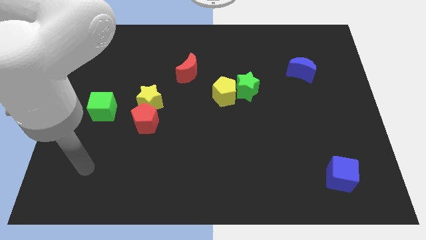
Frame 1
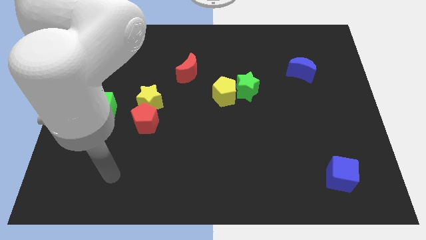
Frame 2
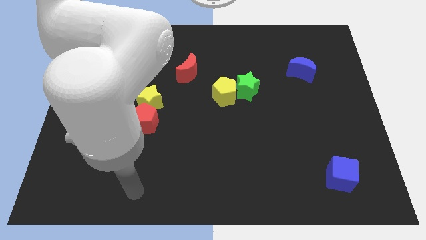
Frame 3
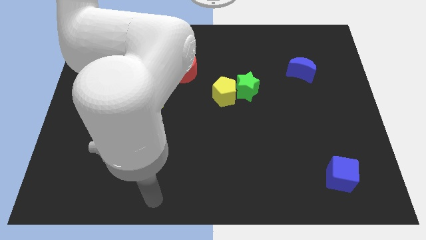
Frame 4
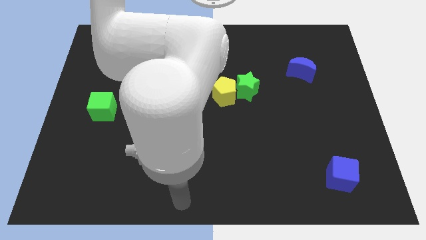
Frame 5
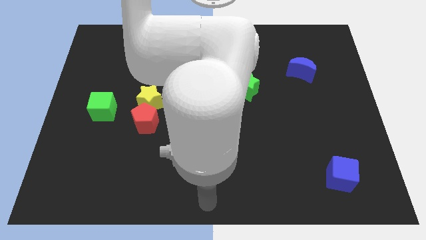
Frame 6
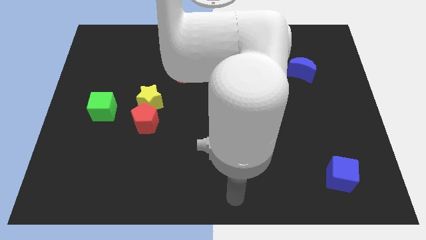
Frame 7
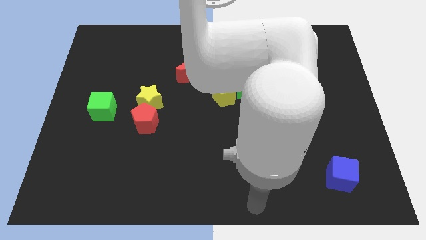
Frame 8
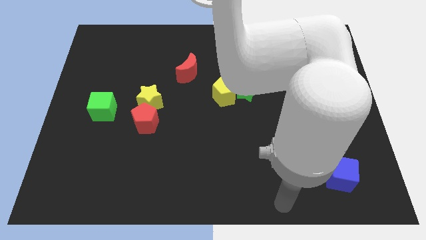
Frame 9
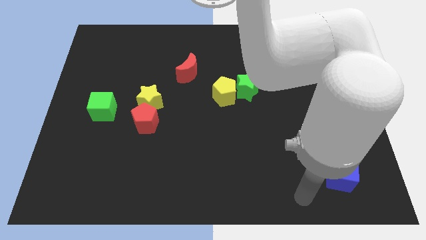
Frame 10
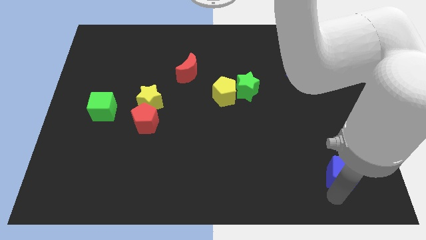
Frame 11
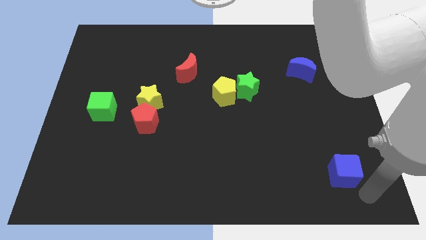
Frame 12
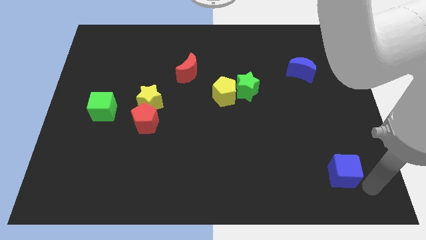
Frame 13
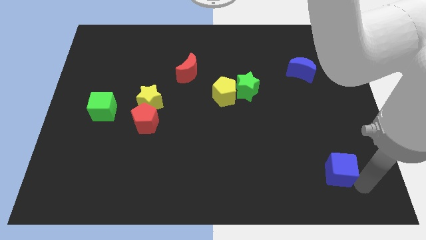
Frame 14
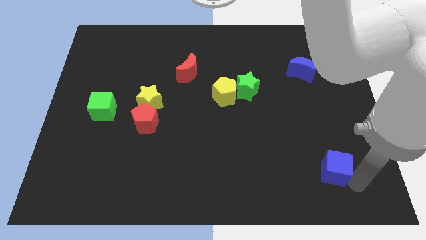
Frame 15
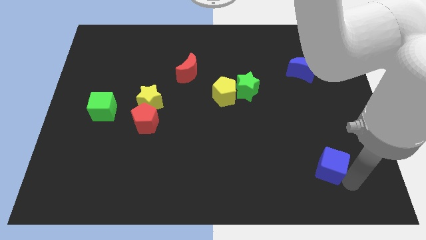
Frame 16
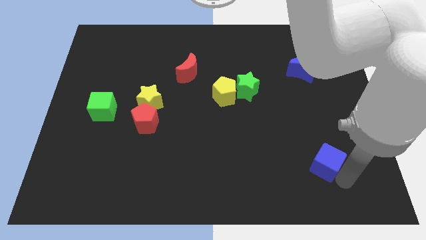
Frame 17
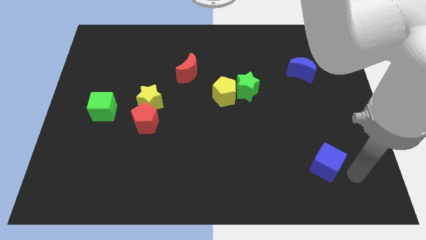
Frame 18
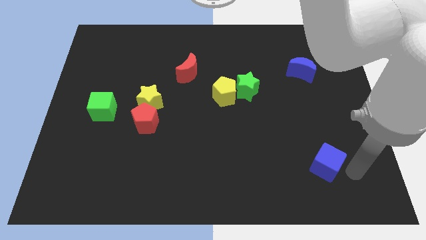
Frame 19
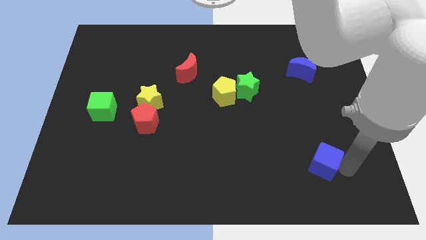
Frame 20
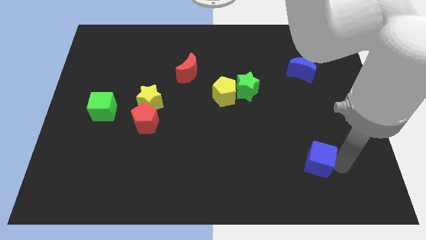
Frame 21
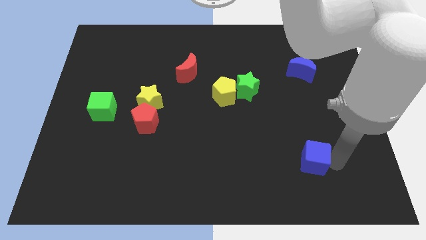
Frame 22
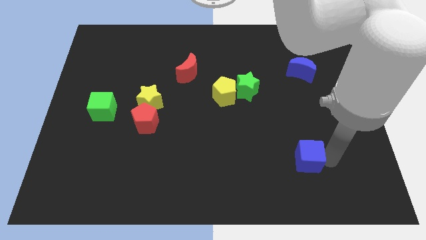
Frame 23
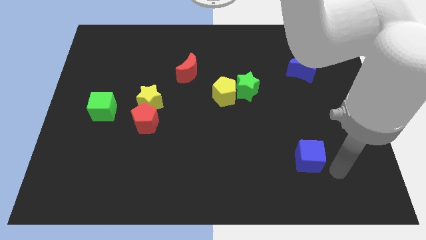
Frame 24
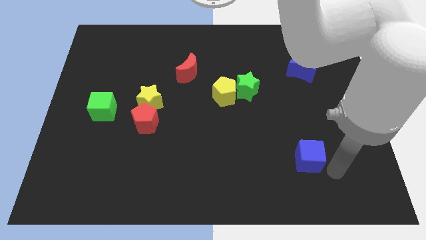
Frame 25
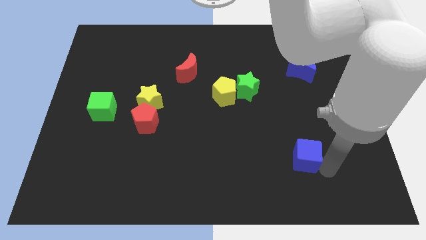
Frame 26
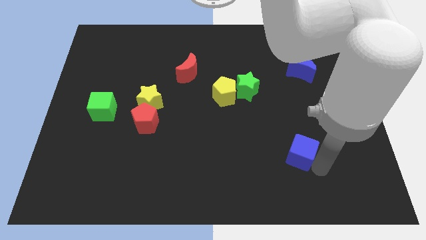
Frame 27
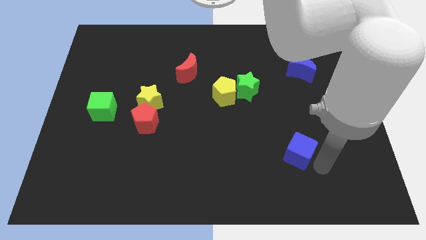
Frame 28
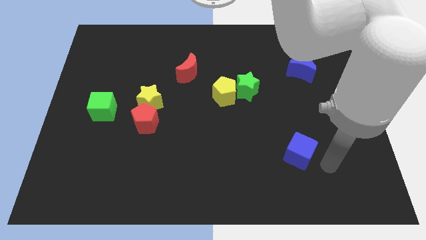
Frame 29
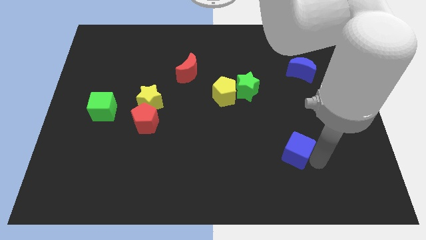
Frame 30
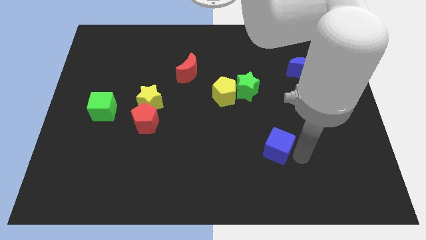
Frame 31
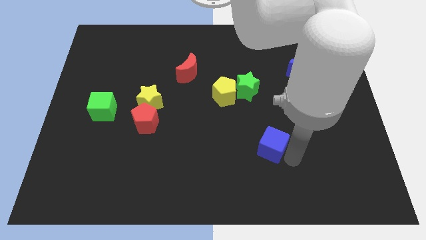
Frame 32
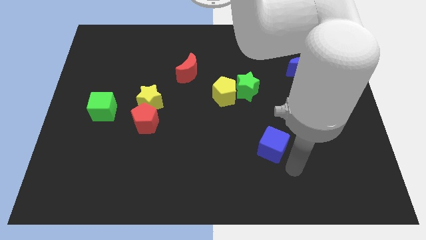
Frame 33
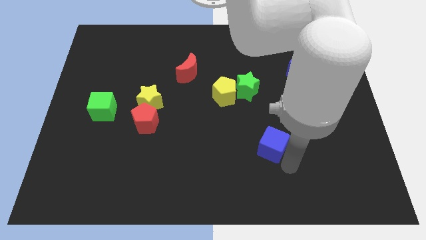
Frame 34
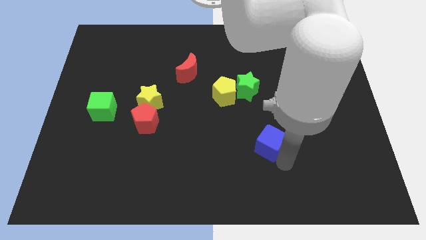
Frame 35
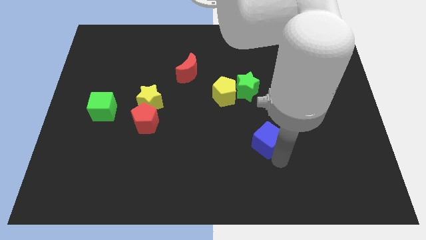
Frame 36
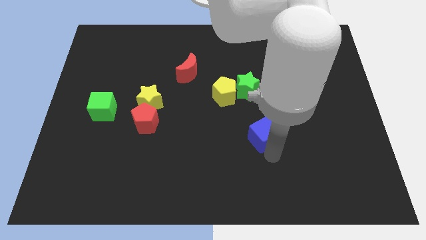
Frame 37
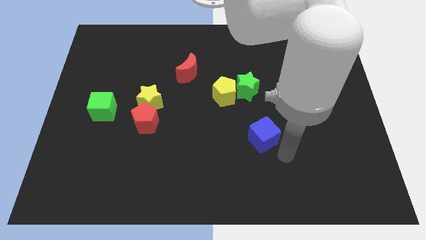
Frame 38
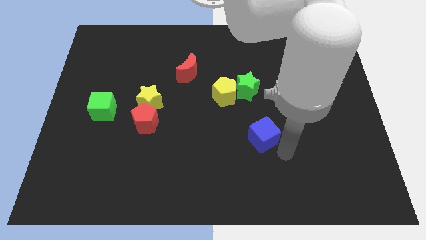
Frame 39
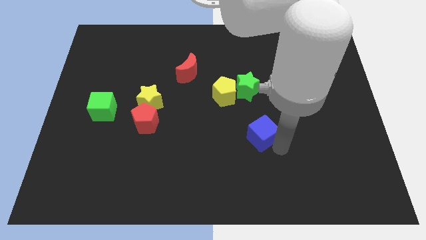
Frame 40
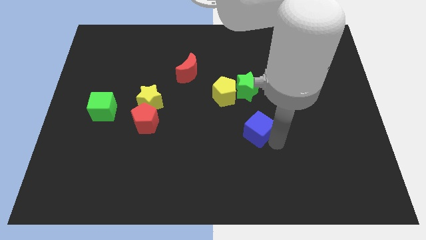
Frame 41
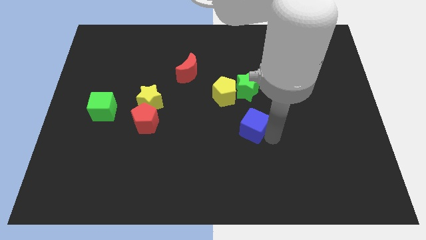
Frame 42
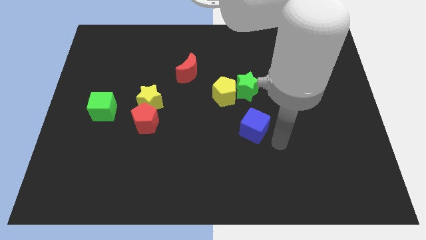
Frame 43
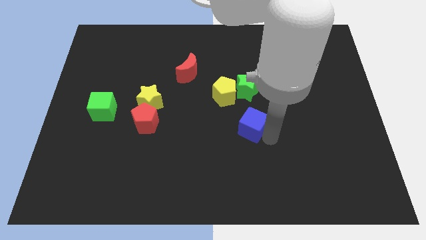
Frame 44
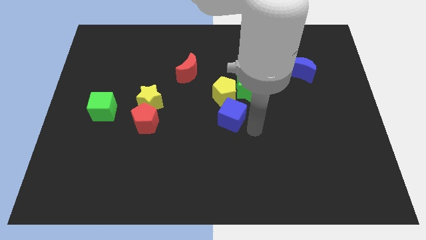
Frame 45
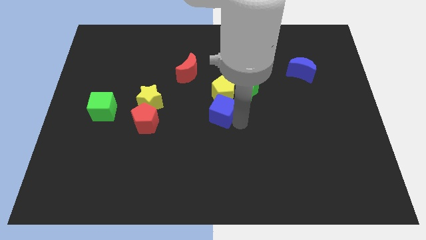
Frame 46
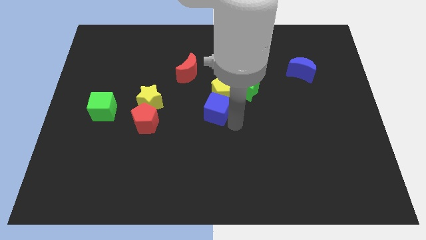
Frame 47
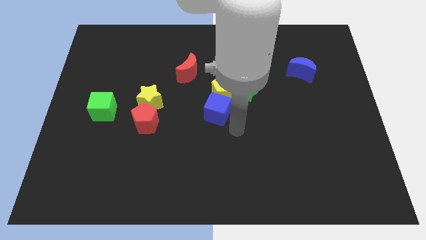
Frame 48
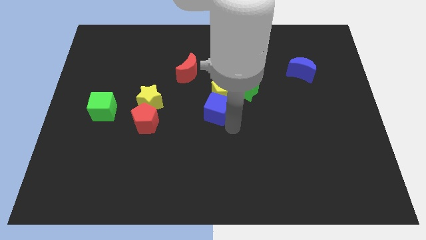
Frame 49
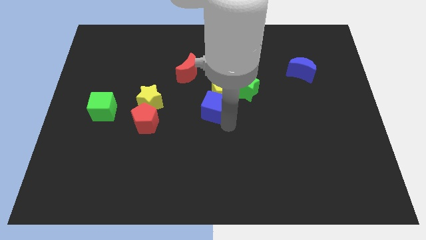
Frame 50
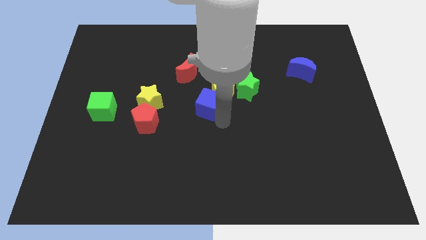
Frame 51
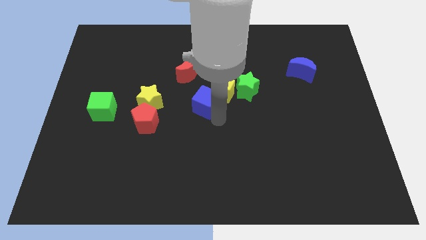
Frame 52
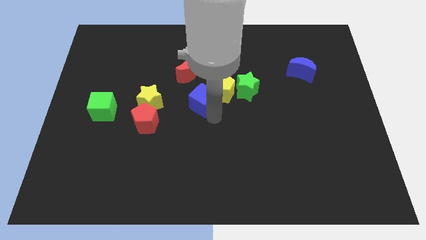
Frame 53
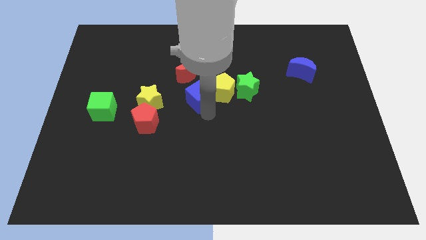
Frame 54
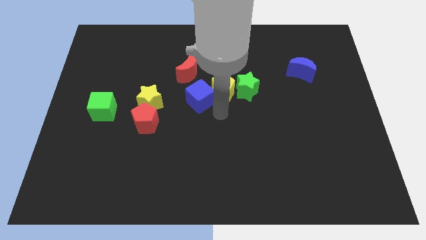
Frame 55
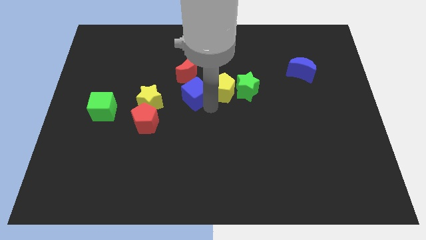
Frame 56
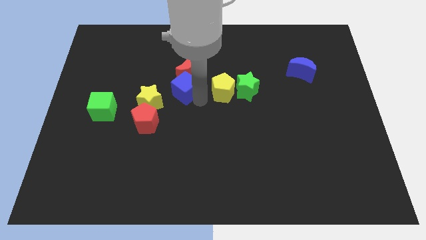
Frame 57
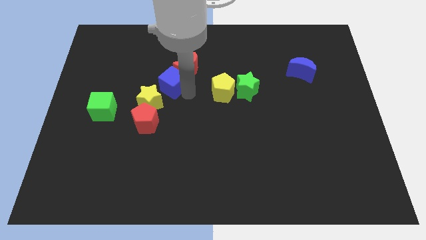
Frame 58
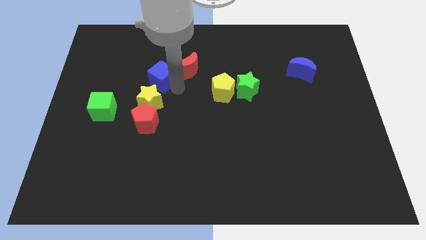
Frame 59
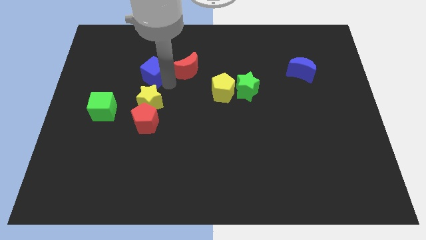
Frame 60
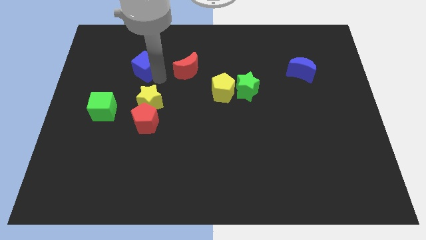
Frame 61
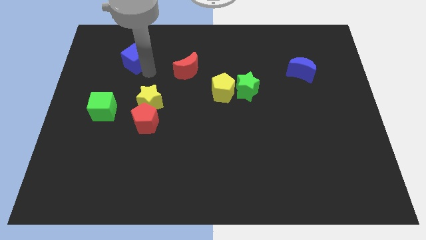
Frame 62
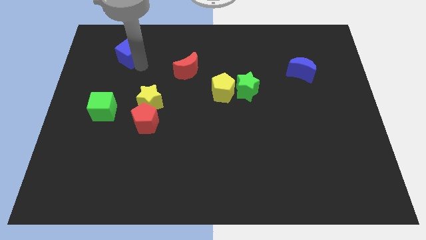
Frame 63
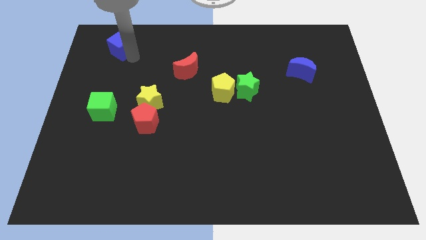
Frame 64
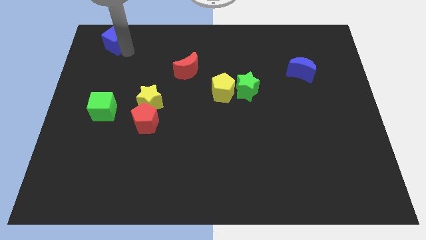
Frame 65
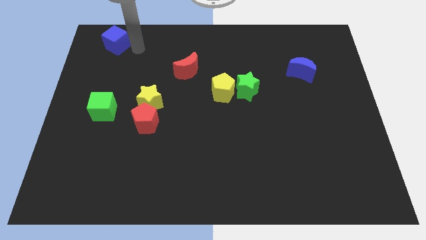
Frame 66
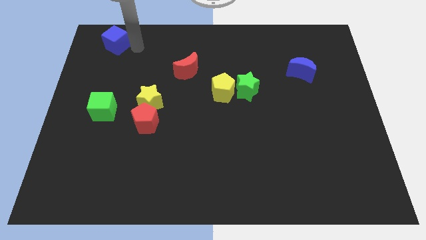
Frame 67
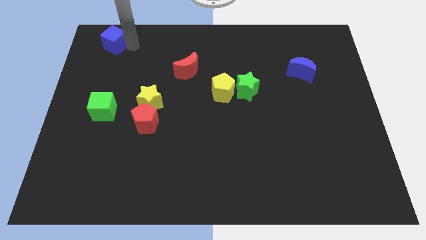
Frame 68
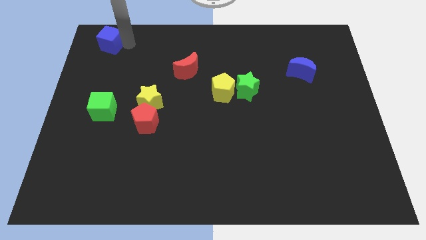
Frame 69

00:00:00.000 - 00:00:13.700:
move the blue cube to the upper left corner

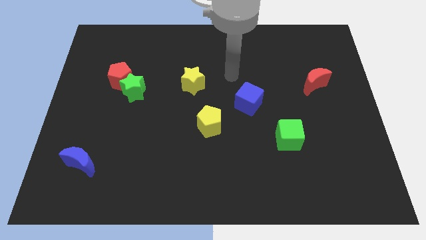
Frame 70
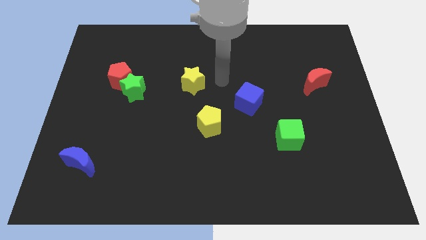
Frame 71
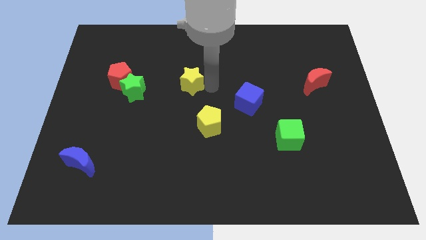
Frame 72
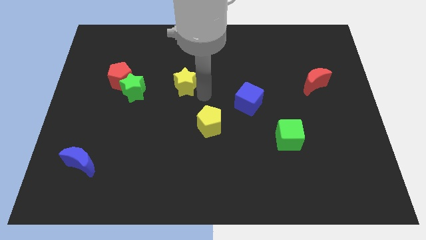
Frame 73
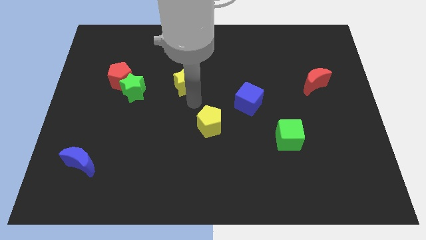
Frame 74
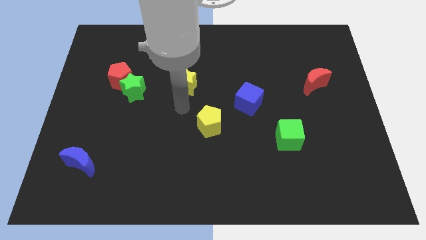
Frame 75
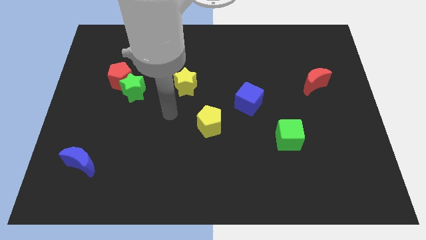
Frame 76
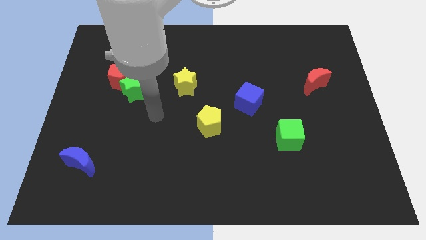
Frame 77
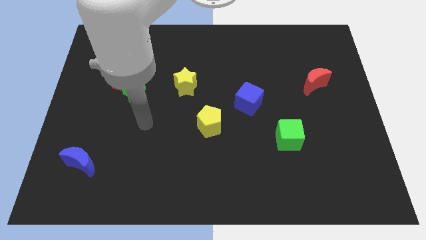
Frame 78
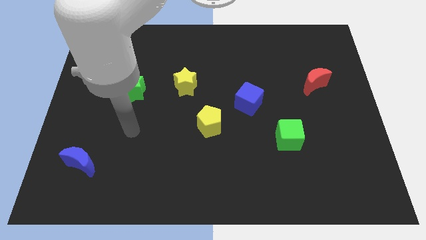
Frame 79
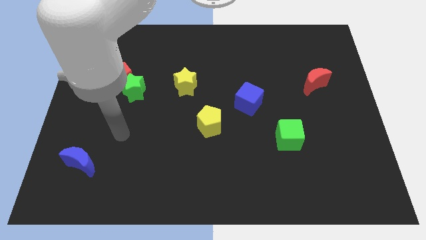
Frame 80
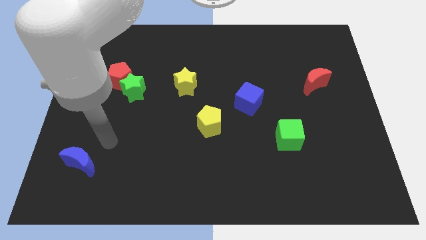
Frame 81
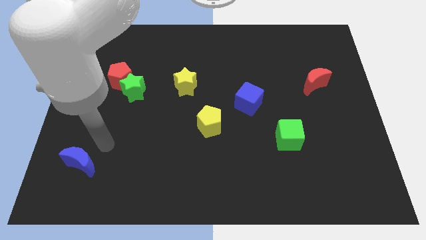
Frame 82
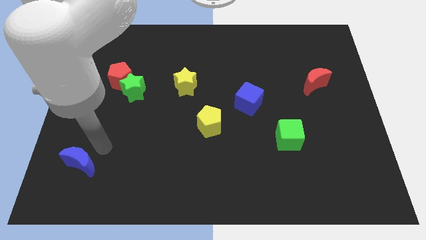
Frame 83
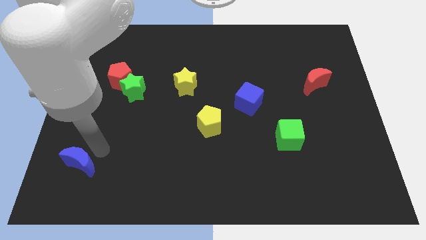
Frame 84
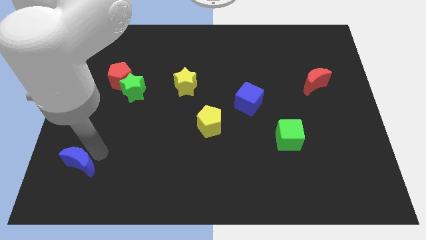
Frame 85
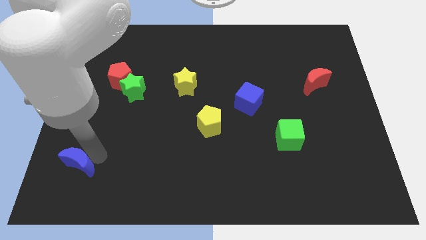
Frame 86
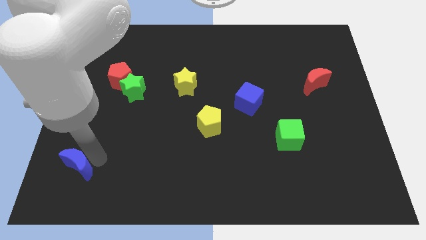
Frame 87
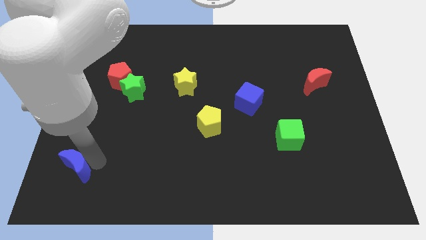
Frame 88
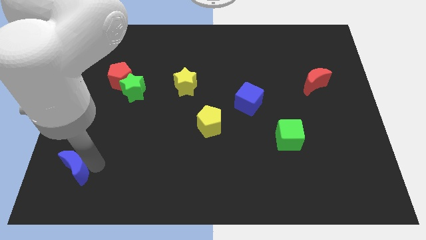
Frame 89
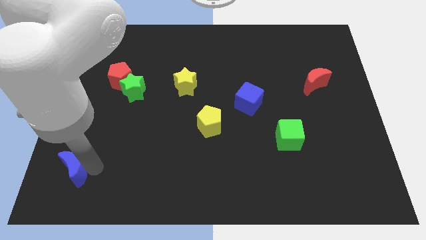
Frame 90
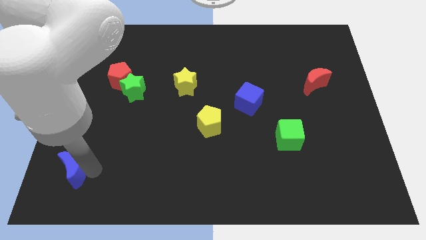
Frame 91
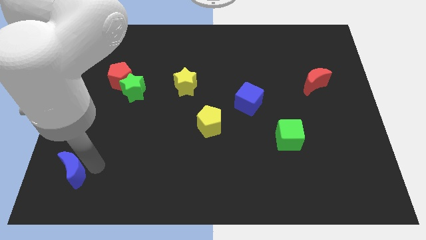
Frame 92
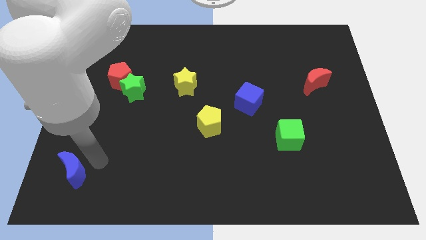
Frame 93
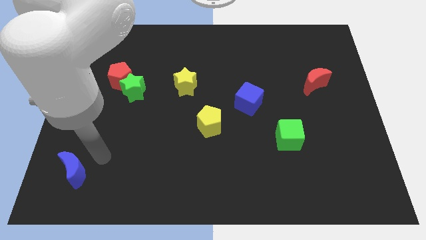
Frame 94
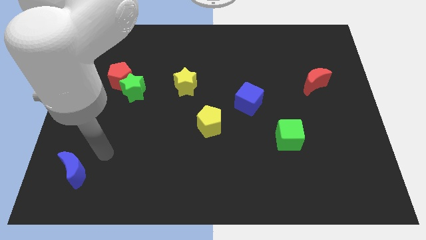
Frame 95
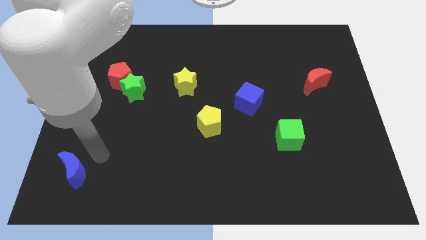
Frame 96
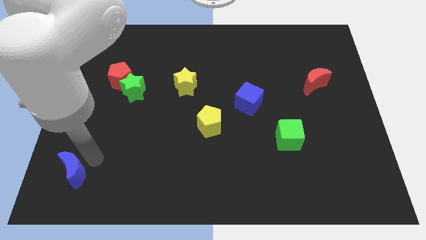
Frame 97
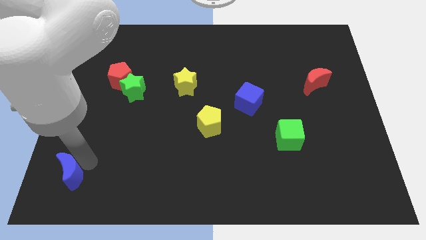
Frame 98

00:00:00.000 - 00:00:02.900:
put the blue moon to the bottom left
